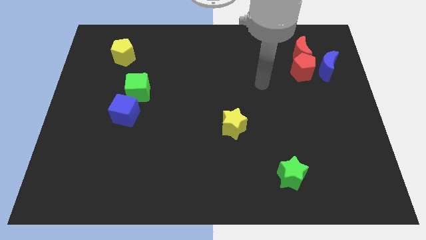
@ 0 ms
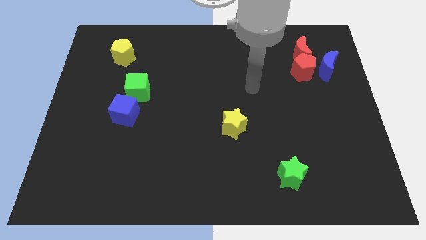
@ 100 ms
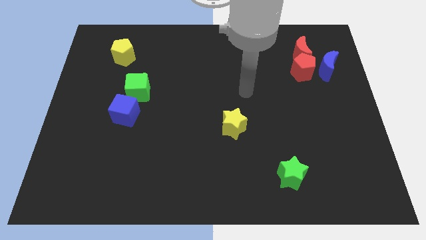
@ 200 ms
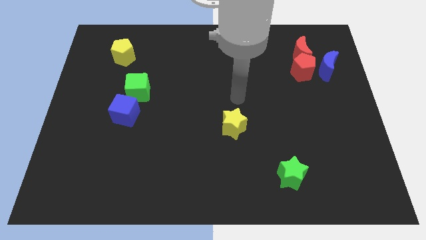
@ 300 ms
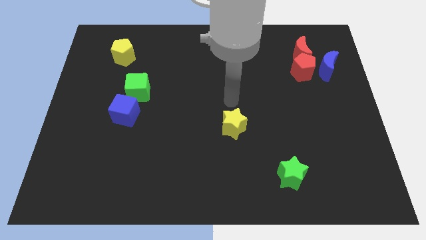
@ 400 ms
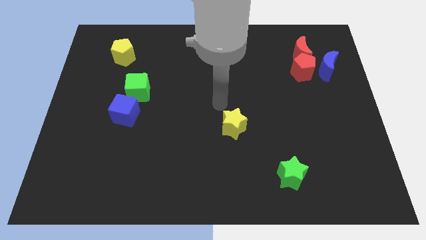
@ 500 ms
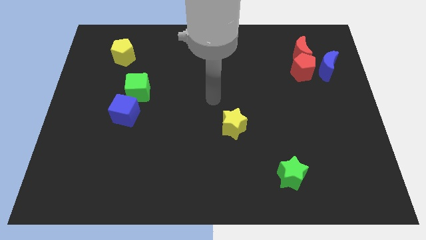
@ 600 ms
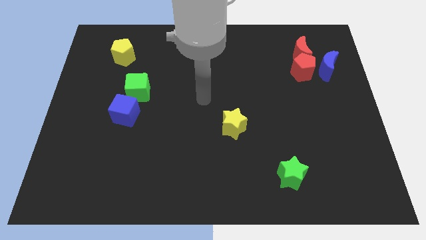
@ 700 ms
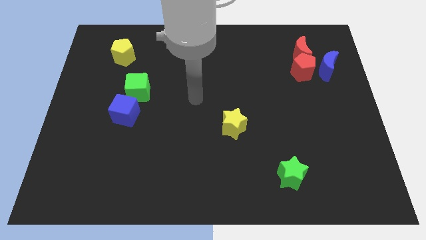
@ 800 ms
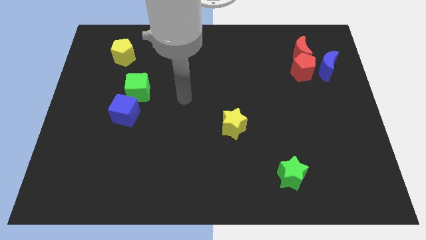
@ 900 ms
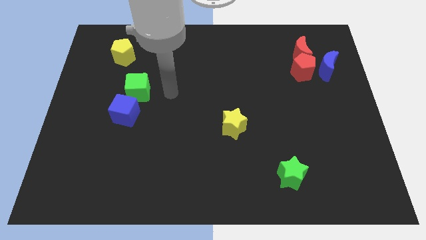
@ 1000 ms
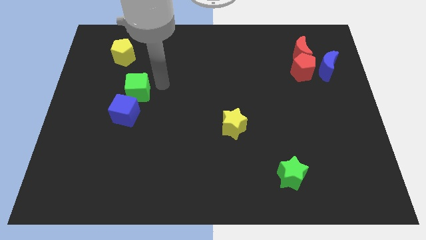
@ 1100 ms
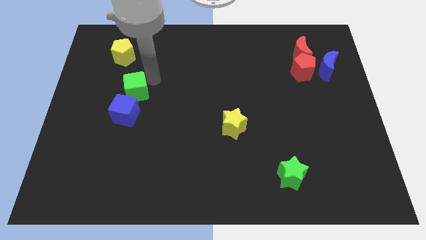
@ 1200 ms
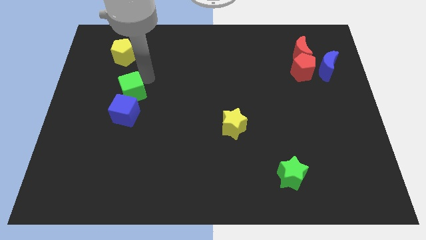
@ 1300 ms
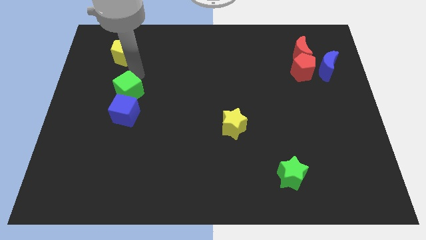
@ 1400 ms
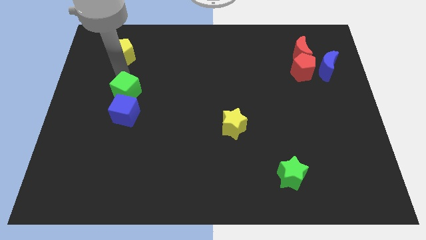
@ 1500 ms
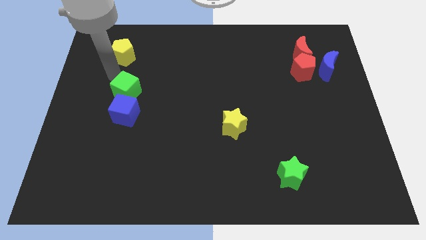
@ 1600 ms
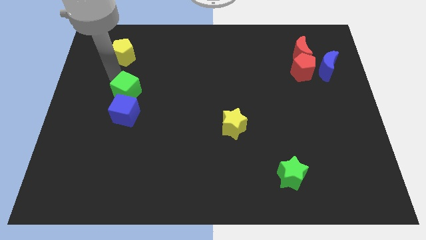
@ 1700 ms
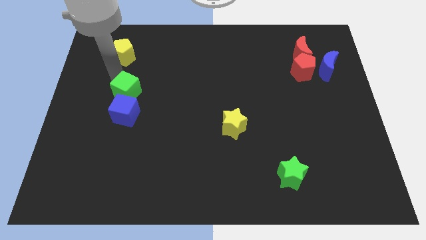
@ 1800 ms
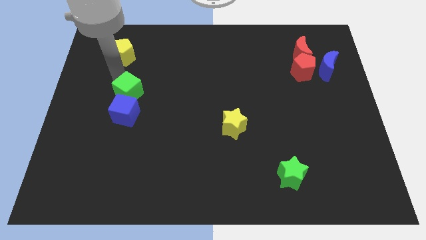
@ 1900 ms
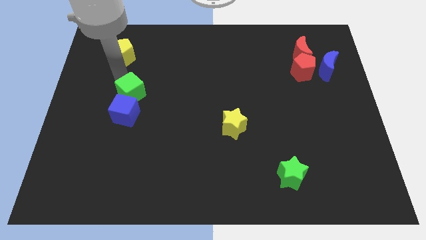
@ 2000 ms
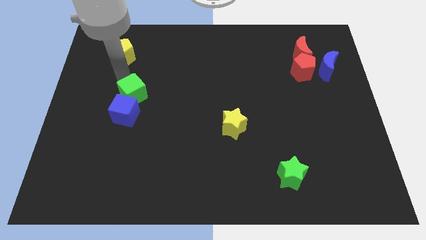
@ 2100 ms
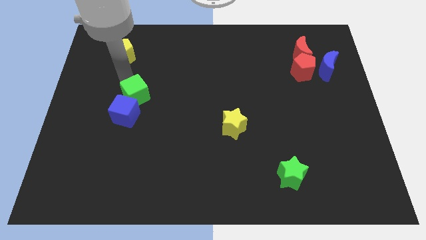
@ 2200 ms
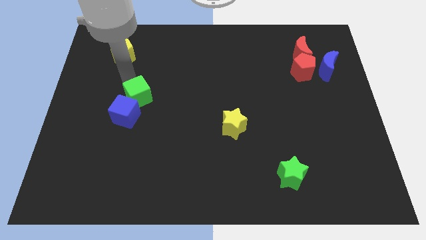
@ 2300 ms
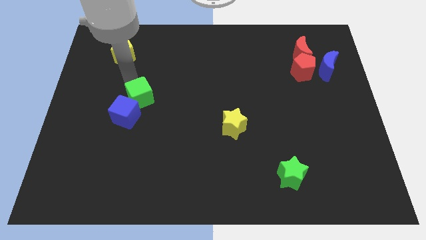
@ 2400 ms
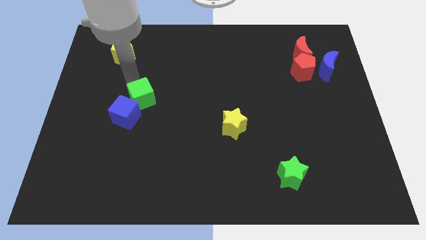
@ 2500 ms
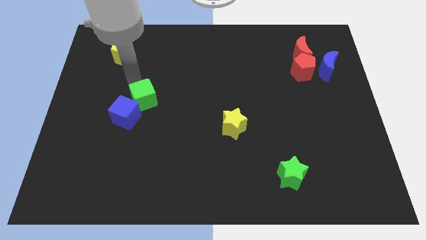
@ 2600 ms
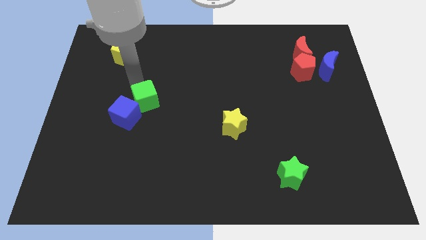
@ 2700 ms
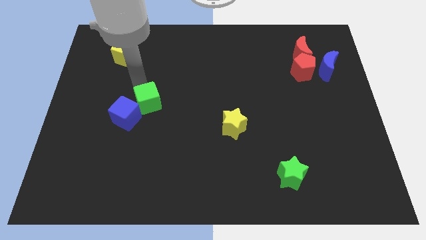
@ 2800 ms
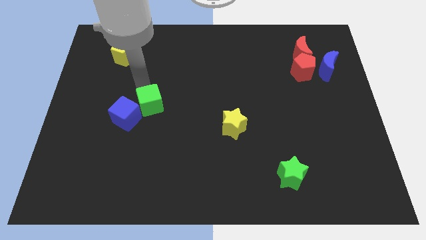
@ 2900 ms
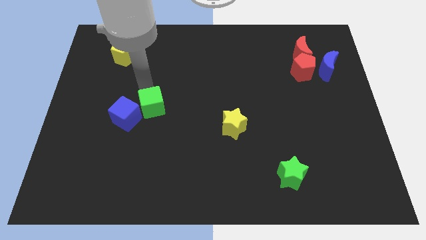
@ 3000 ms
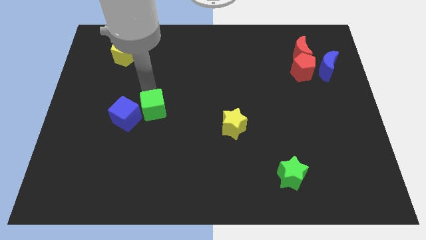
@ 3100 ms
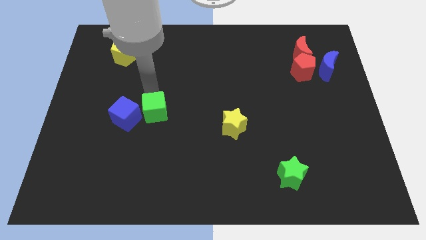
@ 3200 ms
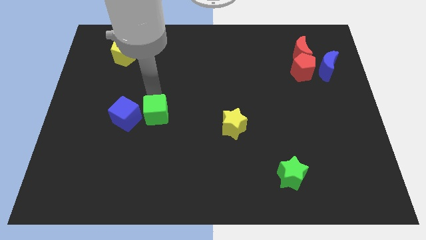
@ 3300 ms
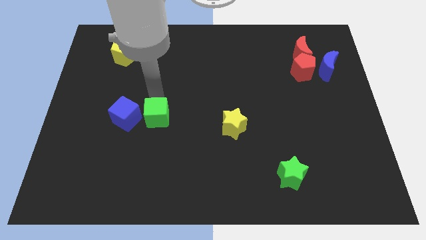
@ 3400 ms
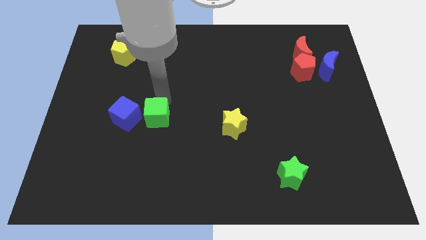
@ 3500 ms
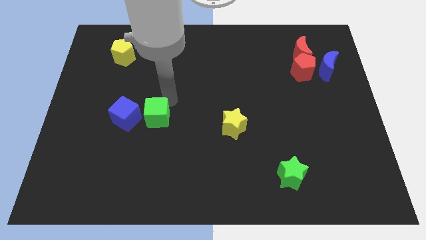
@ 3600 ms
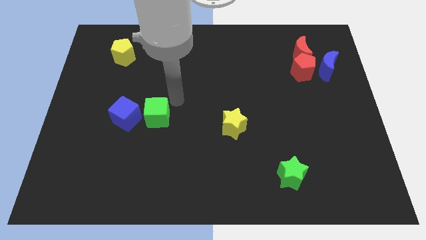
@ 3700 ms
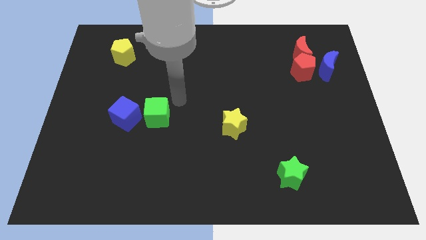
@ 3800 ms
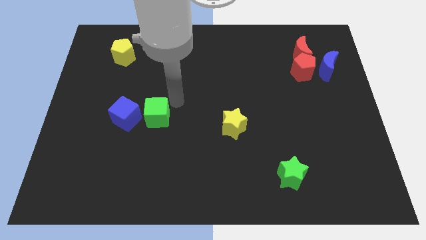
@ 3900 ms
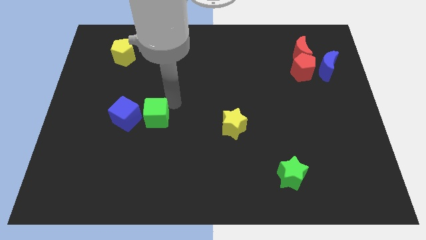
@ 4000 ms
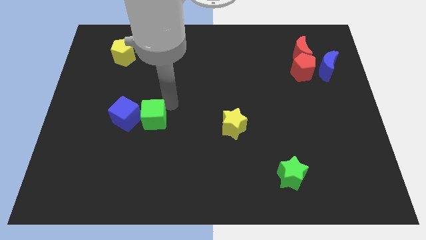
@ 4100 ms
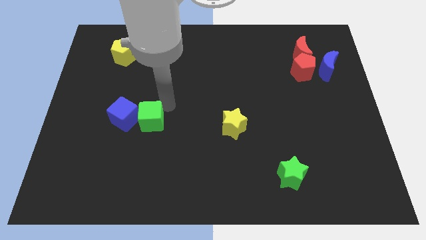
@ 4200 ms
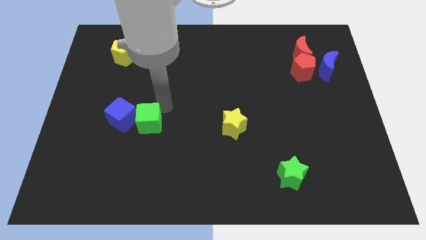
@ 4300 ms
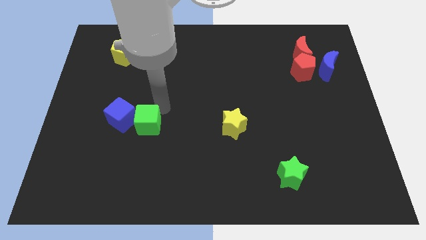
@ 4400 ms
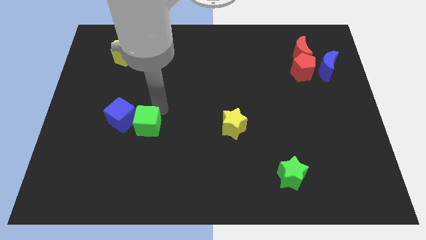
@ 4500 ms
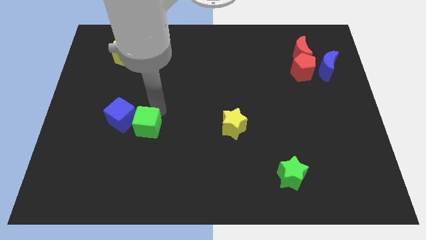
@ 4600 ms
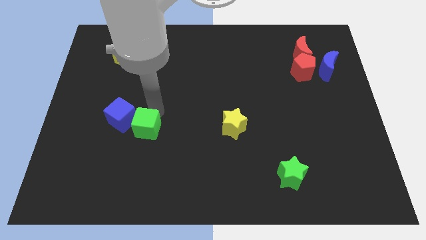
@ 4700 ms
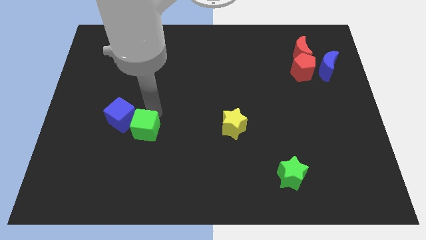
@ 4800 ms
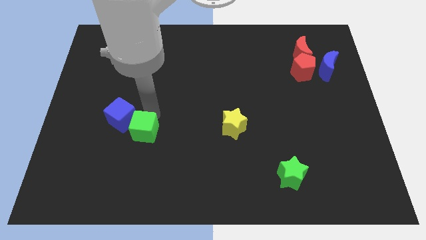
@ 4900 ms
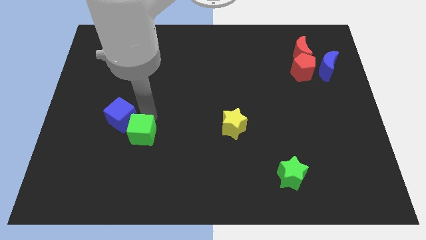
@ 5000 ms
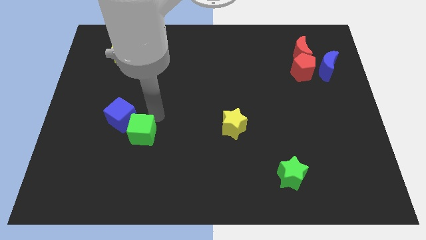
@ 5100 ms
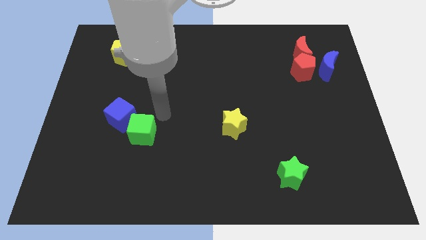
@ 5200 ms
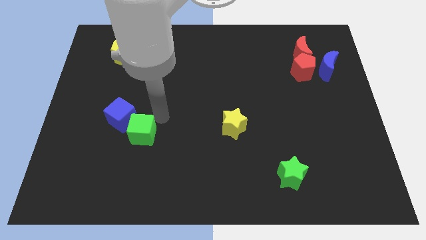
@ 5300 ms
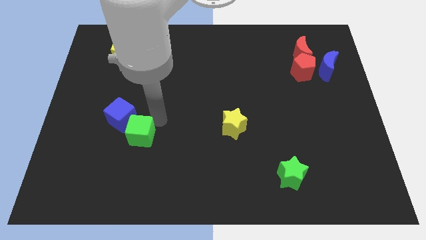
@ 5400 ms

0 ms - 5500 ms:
move the green cube to the bottom of the blue cube
